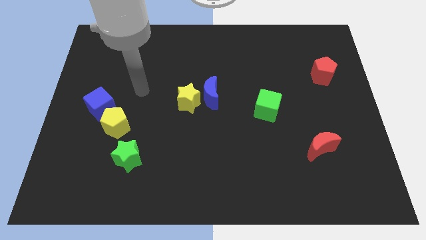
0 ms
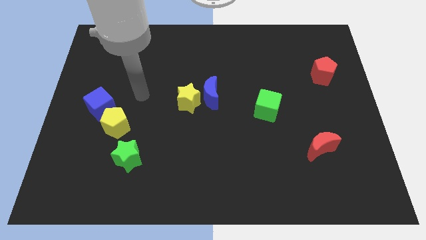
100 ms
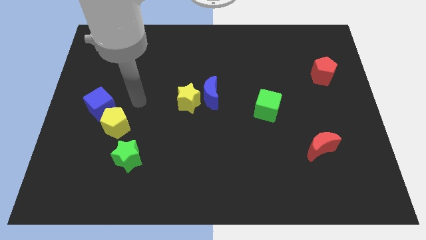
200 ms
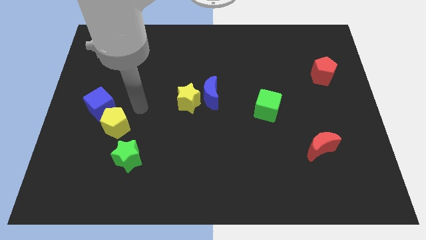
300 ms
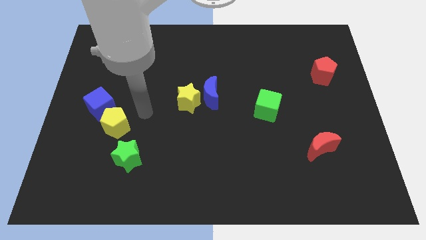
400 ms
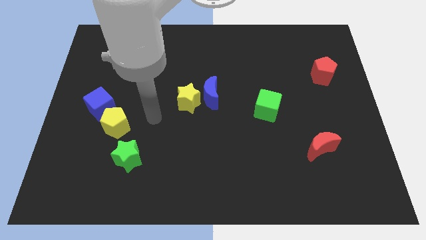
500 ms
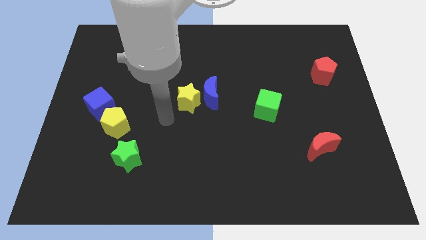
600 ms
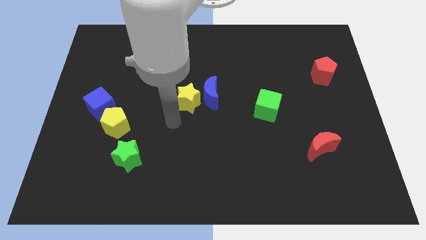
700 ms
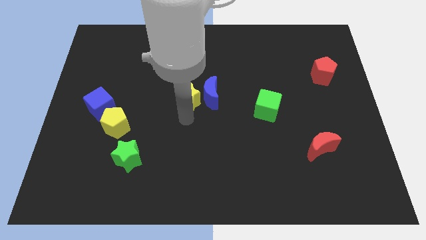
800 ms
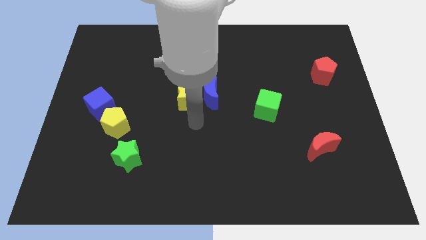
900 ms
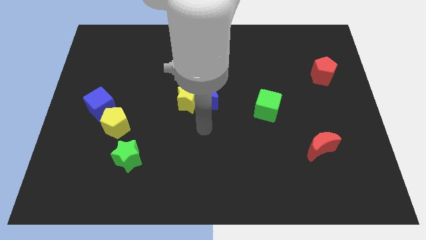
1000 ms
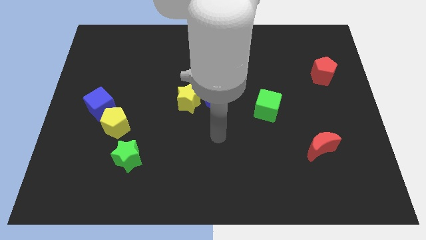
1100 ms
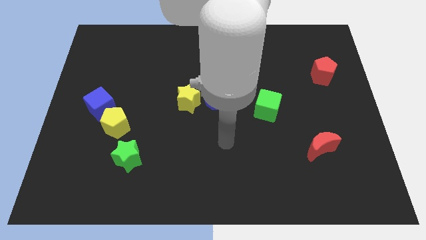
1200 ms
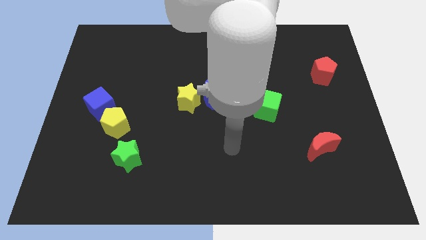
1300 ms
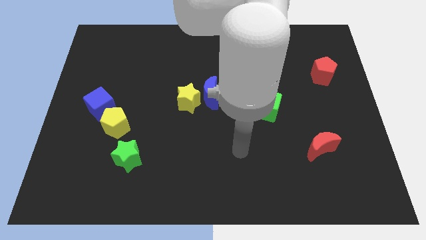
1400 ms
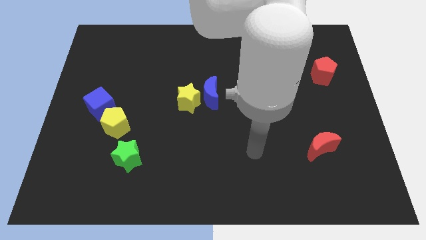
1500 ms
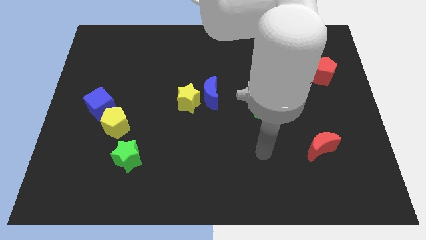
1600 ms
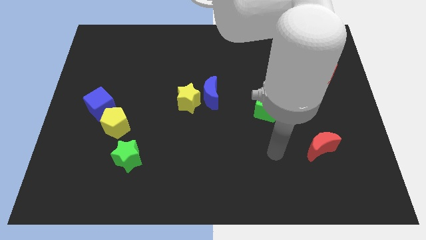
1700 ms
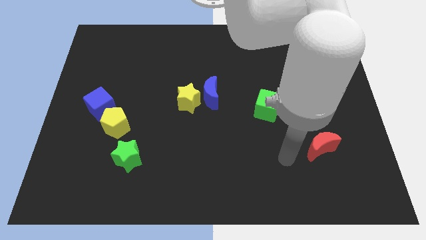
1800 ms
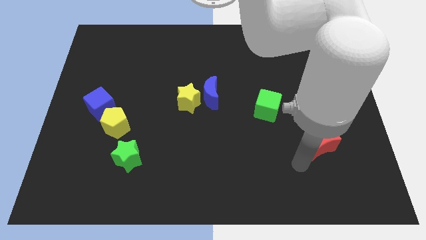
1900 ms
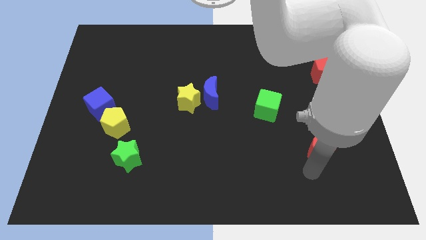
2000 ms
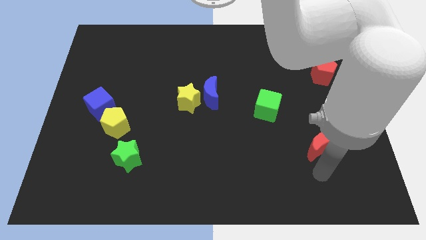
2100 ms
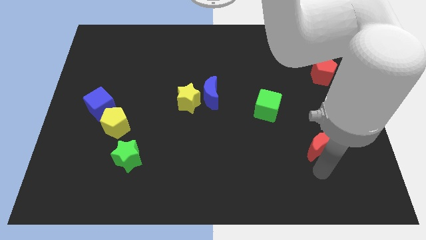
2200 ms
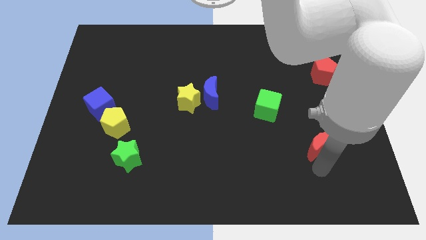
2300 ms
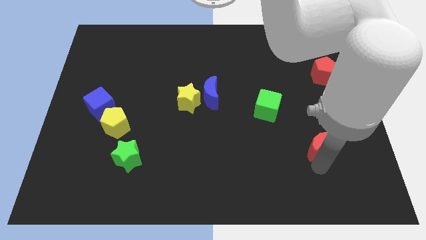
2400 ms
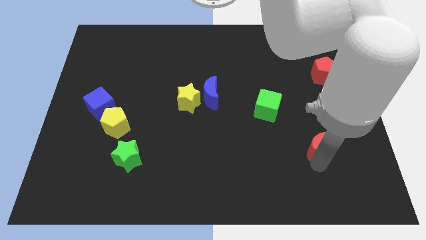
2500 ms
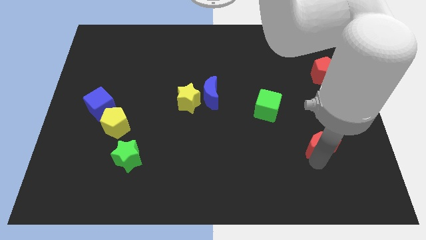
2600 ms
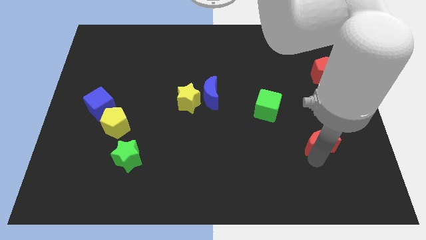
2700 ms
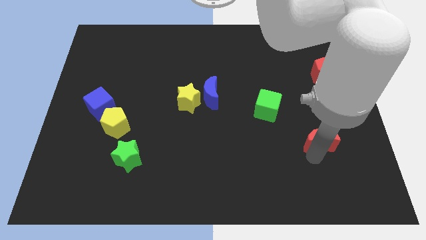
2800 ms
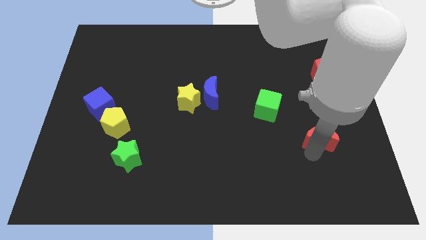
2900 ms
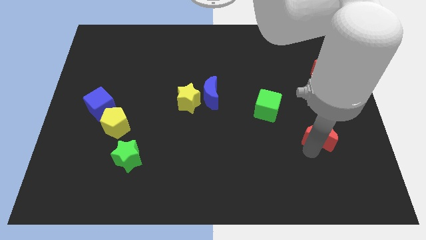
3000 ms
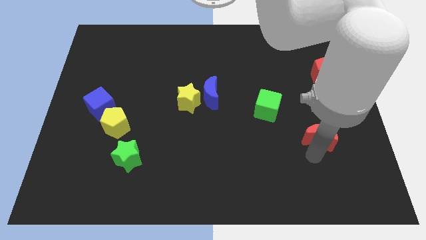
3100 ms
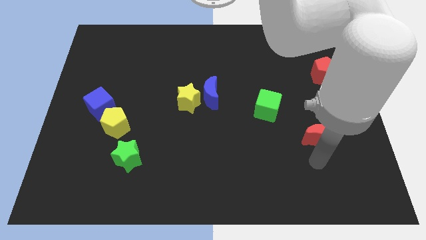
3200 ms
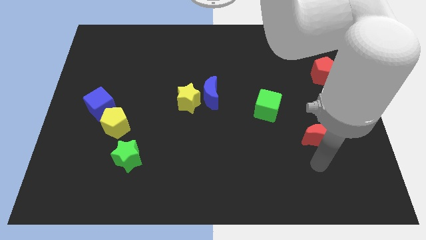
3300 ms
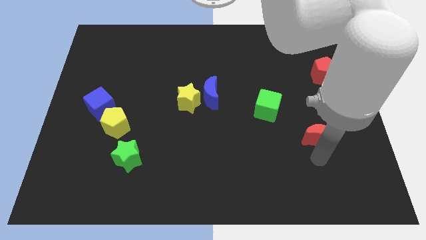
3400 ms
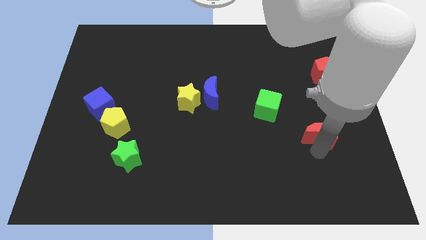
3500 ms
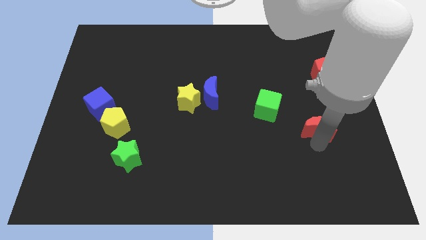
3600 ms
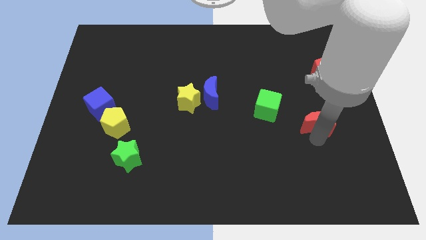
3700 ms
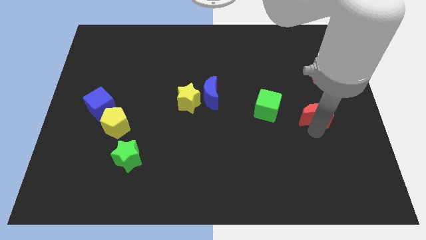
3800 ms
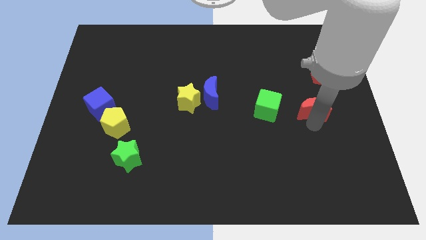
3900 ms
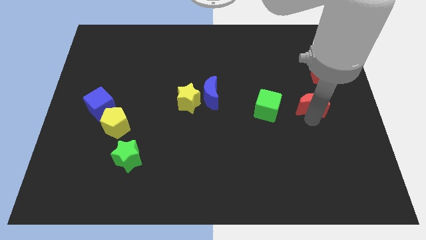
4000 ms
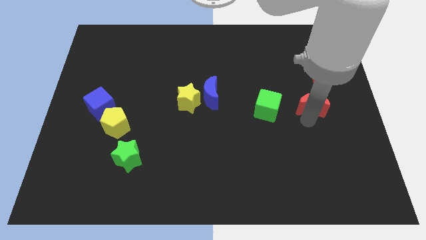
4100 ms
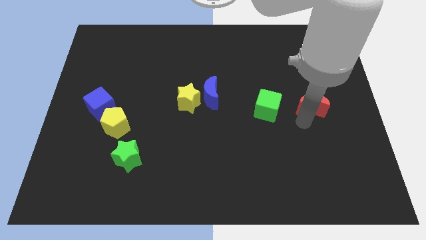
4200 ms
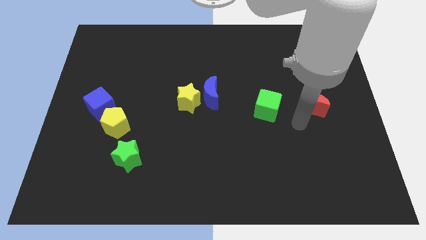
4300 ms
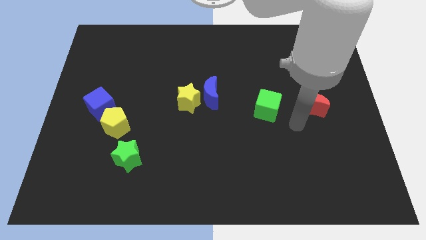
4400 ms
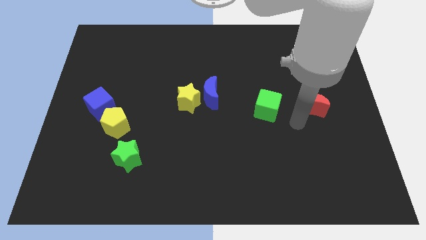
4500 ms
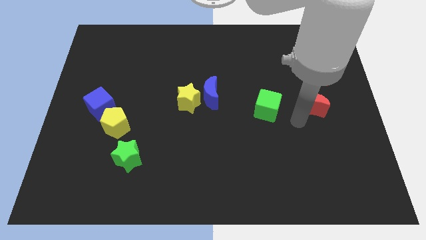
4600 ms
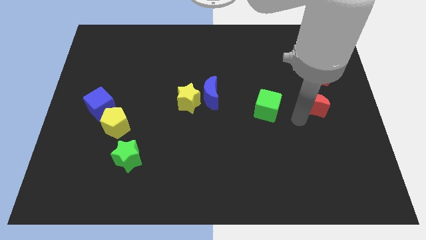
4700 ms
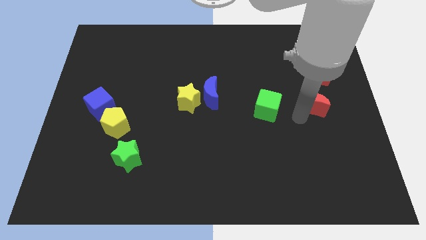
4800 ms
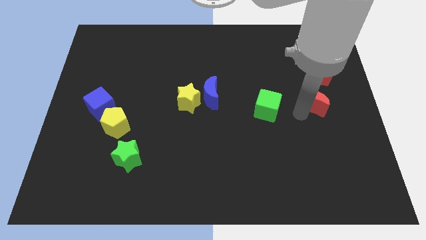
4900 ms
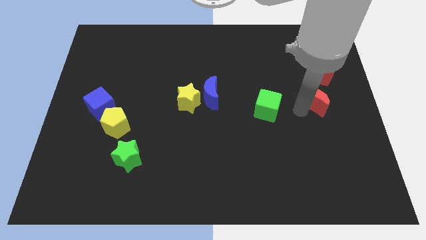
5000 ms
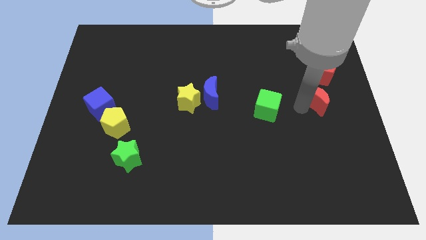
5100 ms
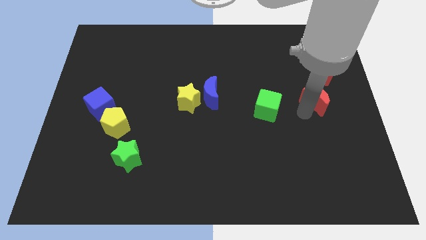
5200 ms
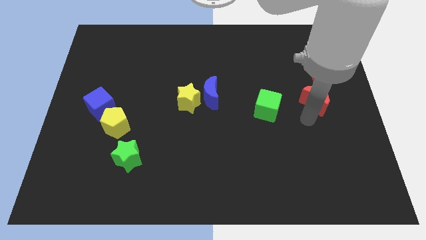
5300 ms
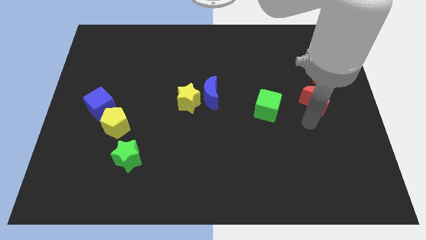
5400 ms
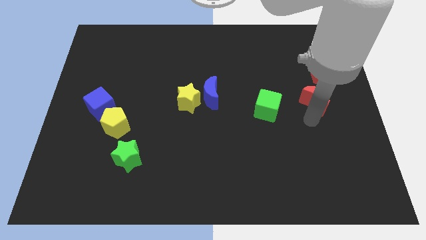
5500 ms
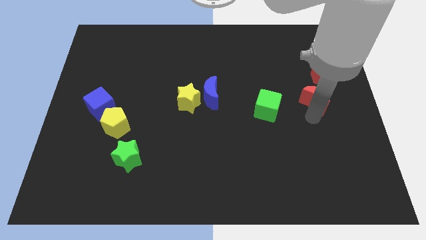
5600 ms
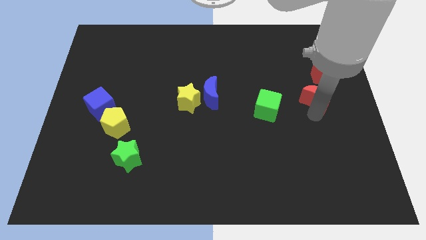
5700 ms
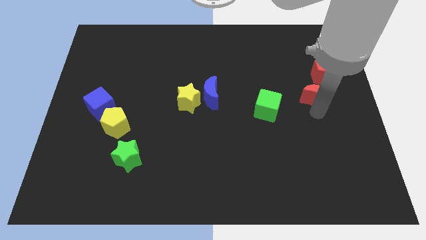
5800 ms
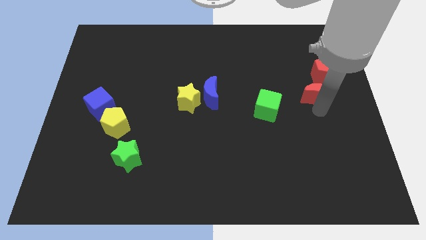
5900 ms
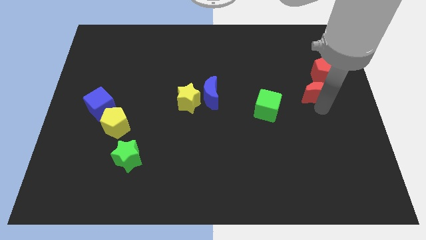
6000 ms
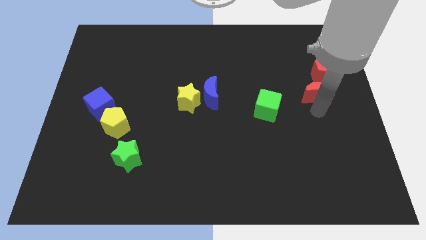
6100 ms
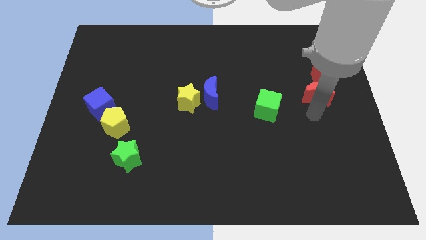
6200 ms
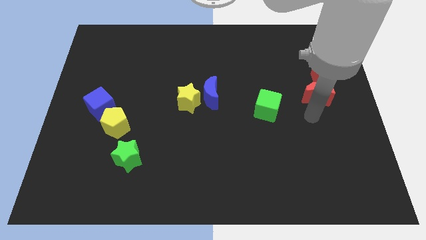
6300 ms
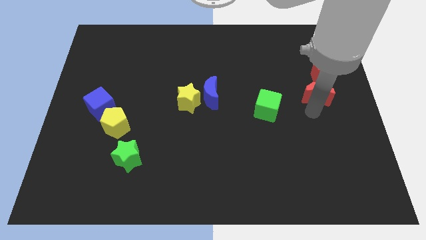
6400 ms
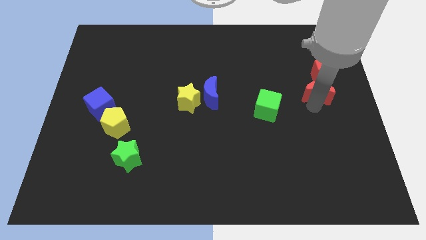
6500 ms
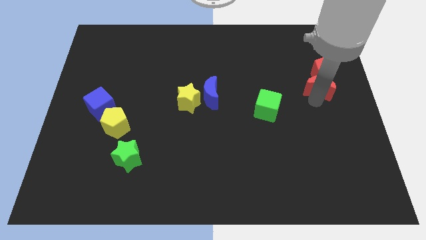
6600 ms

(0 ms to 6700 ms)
push the red moon towards the red pentagon

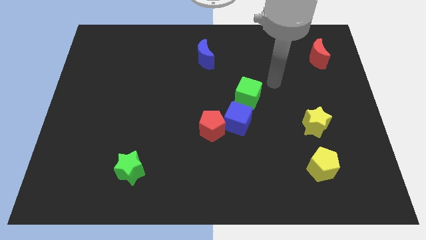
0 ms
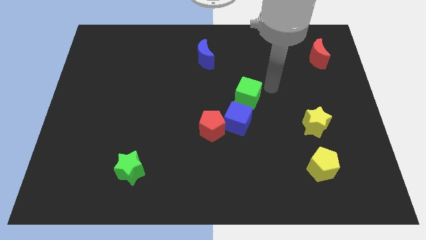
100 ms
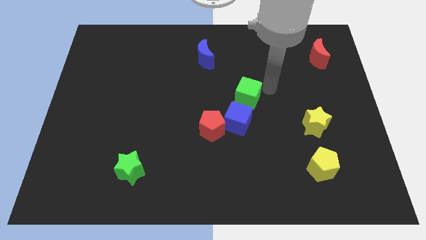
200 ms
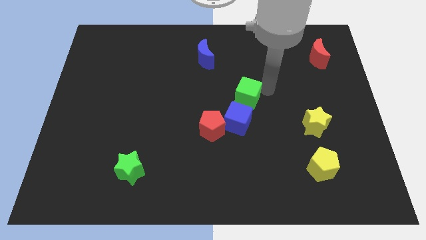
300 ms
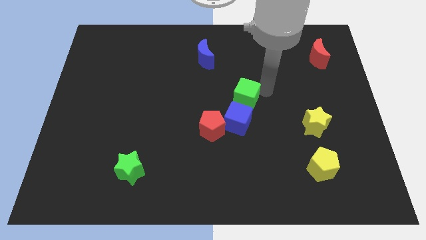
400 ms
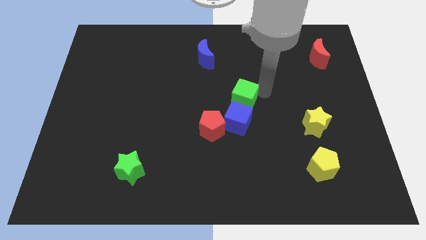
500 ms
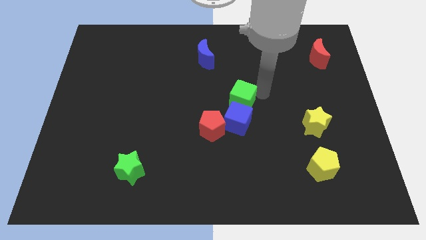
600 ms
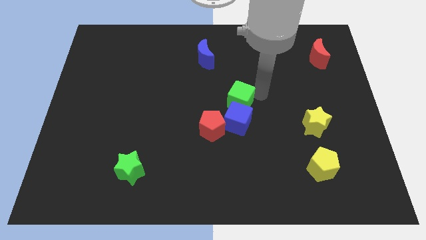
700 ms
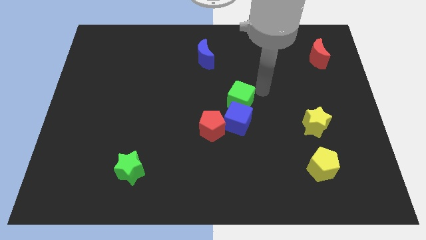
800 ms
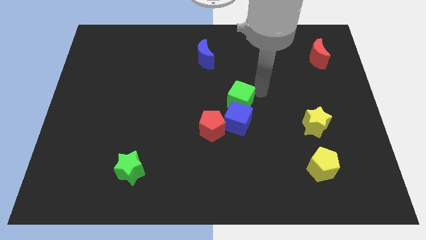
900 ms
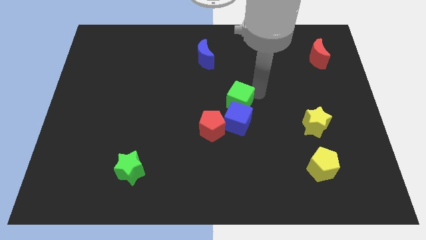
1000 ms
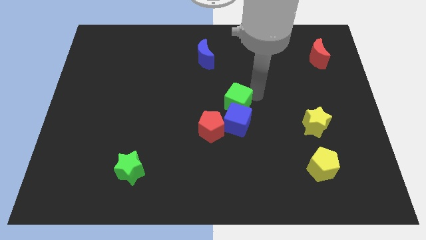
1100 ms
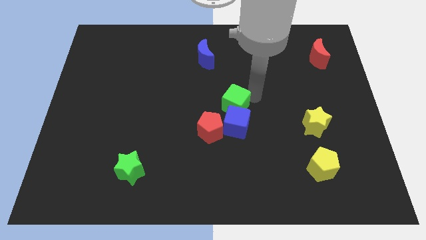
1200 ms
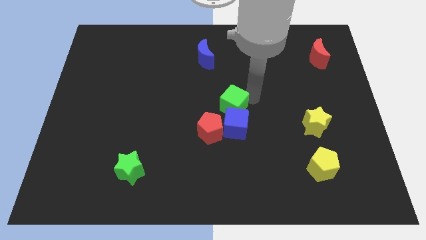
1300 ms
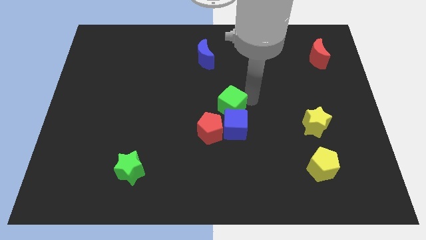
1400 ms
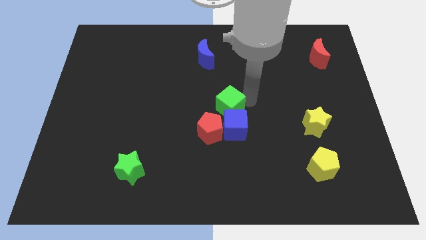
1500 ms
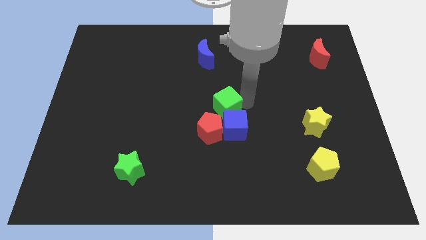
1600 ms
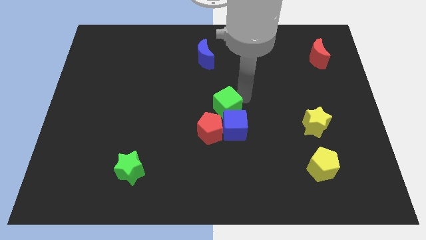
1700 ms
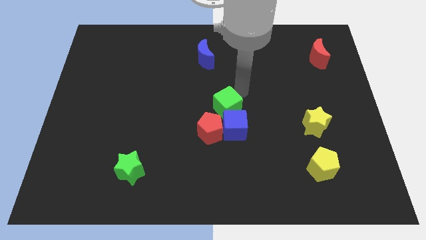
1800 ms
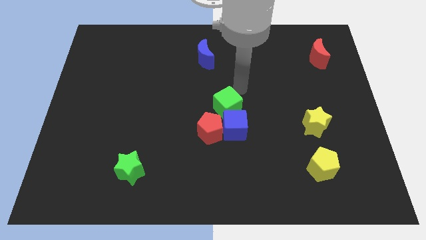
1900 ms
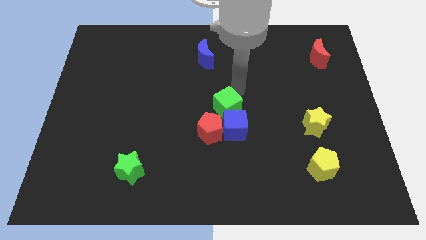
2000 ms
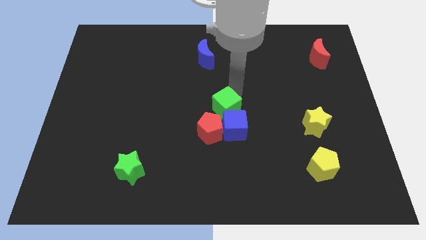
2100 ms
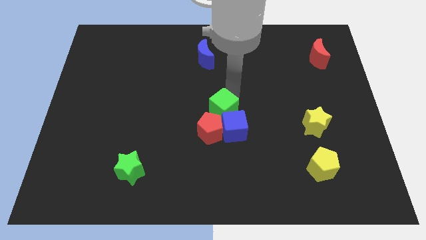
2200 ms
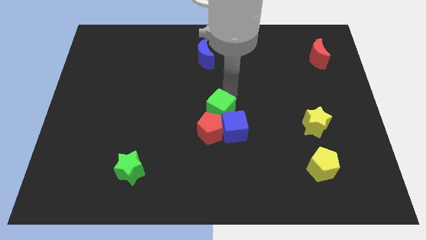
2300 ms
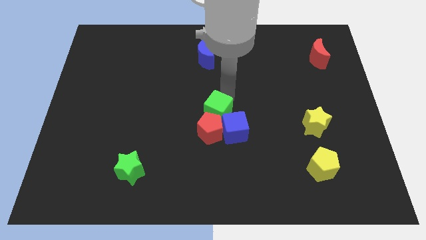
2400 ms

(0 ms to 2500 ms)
push the green cube next to the red pentagon
